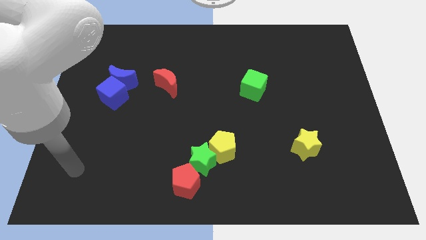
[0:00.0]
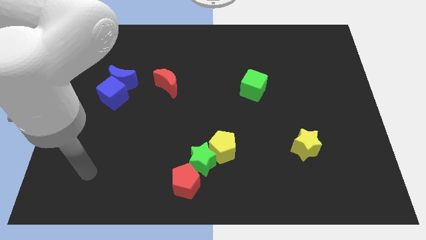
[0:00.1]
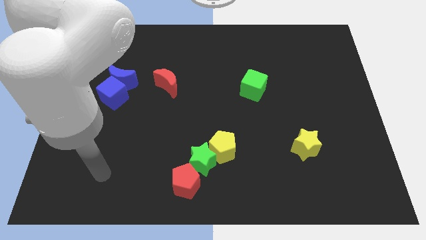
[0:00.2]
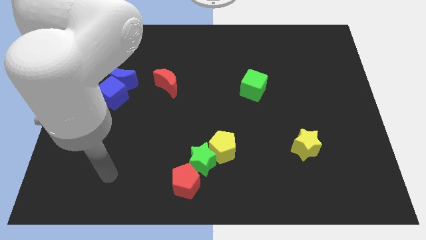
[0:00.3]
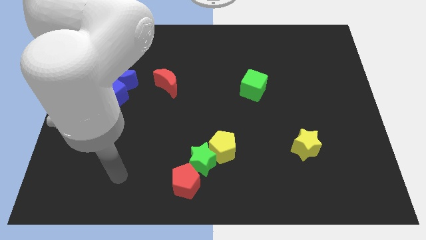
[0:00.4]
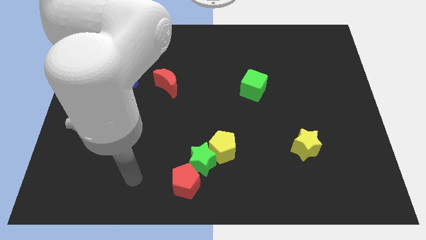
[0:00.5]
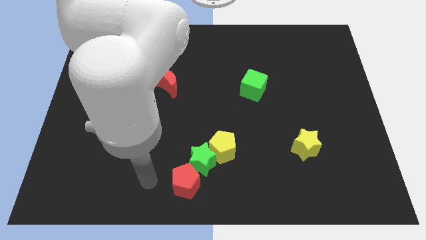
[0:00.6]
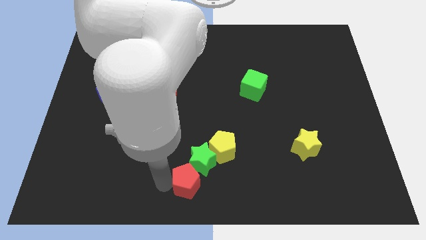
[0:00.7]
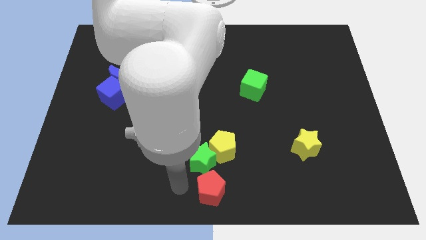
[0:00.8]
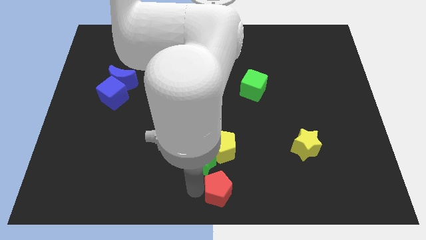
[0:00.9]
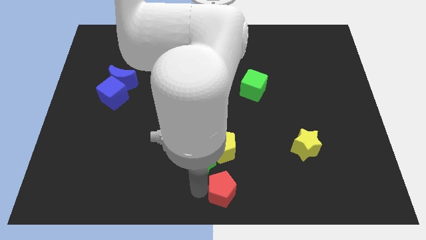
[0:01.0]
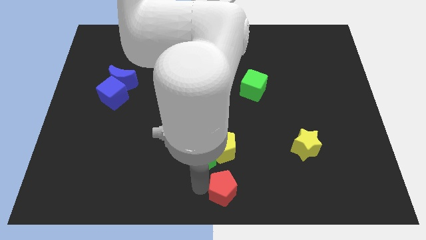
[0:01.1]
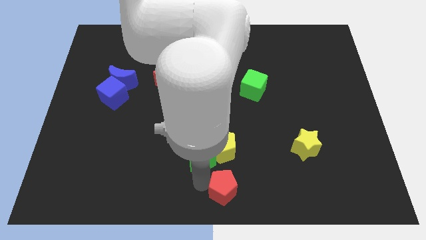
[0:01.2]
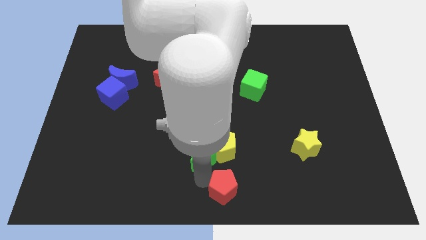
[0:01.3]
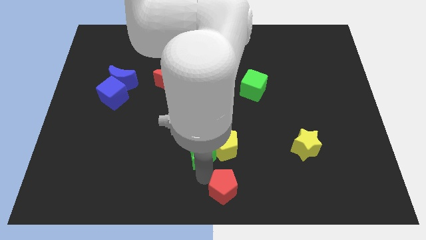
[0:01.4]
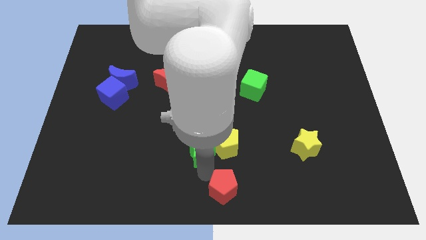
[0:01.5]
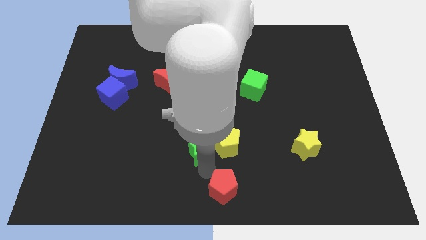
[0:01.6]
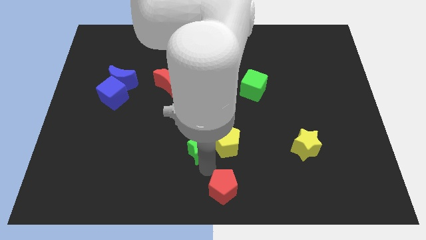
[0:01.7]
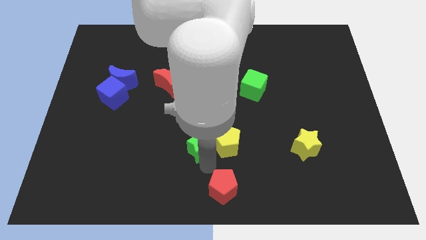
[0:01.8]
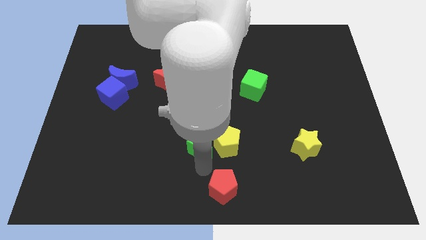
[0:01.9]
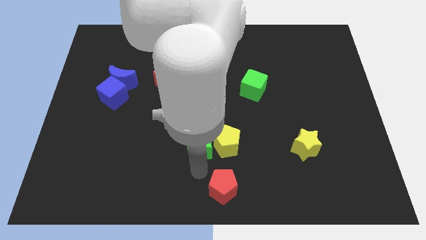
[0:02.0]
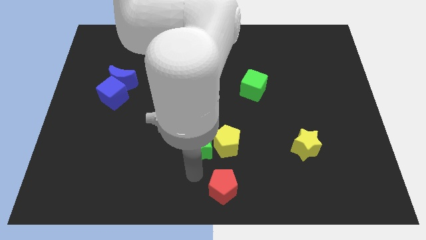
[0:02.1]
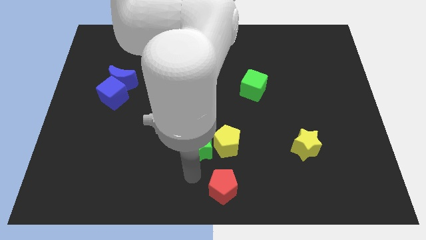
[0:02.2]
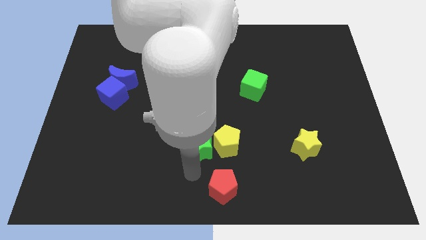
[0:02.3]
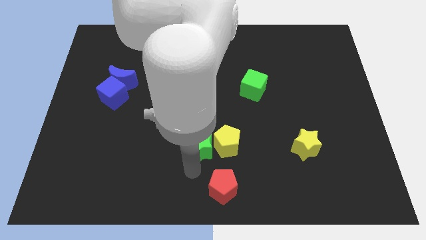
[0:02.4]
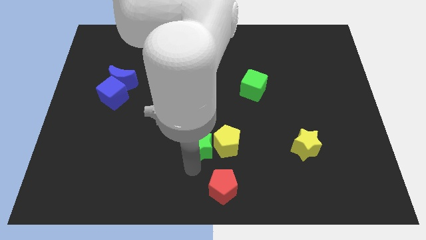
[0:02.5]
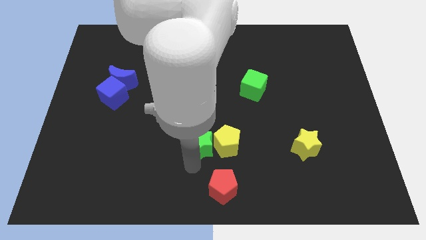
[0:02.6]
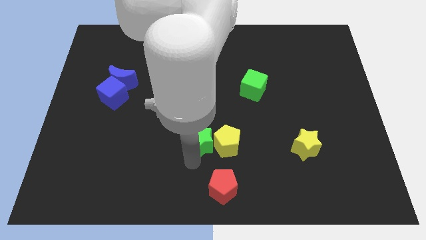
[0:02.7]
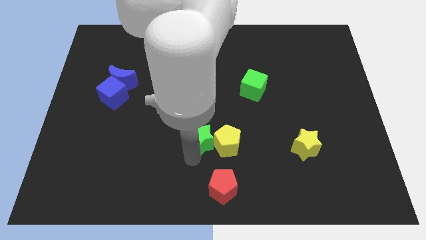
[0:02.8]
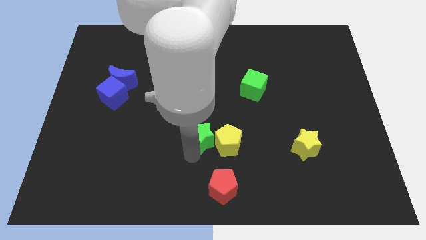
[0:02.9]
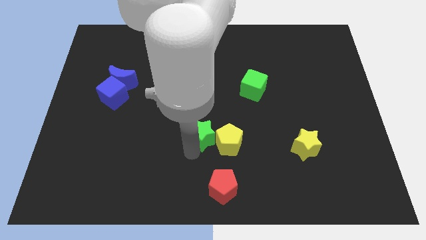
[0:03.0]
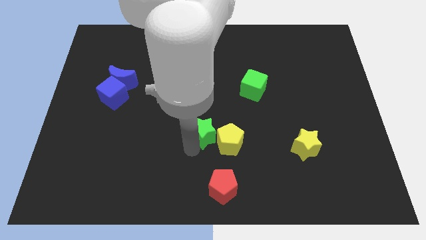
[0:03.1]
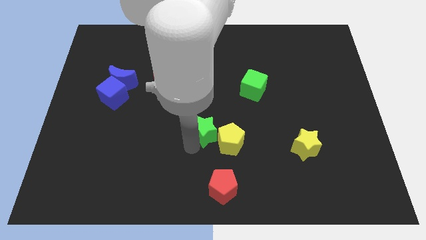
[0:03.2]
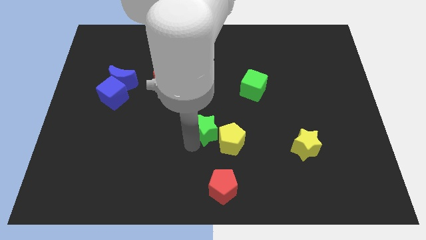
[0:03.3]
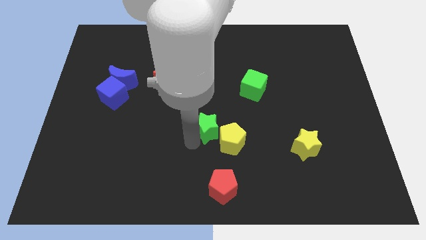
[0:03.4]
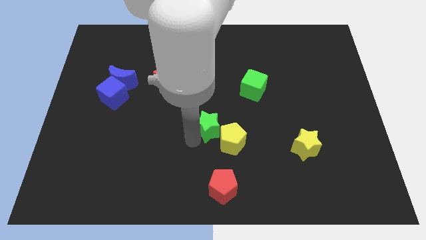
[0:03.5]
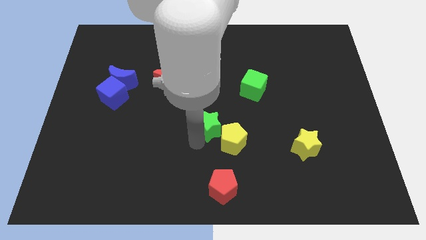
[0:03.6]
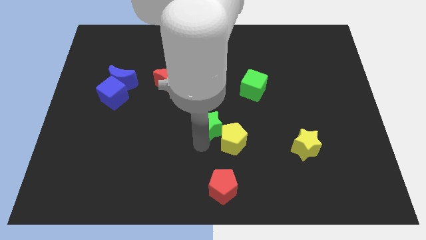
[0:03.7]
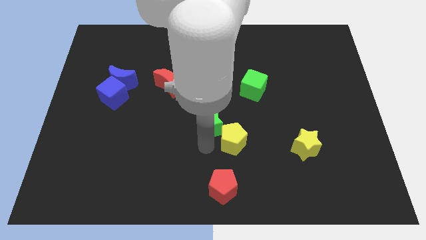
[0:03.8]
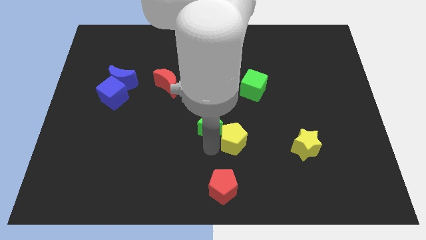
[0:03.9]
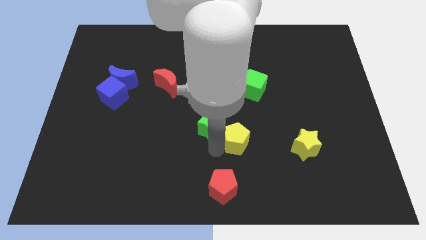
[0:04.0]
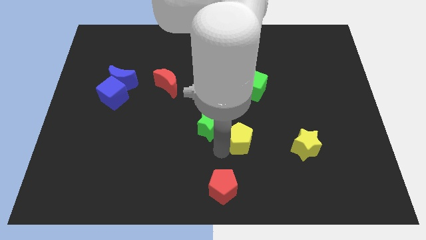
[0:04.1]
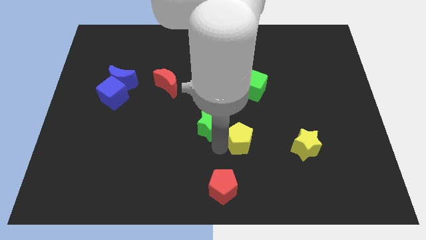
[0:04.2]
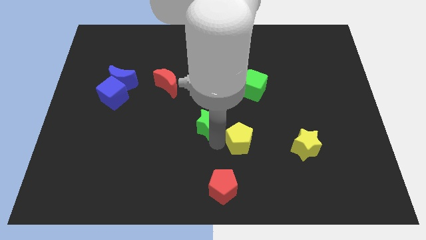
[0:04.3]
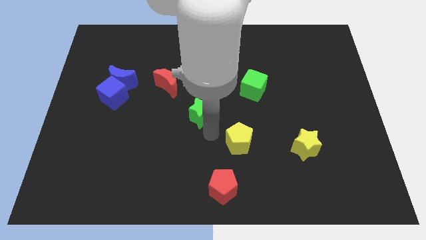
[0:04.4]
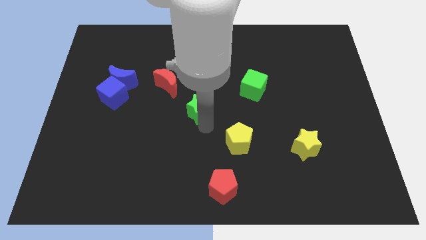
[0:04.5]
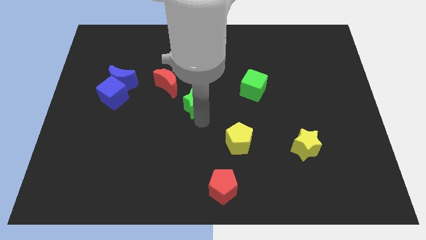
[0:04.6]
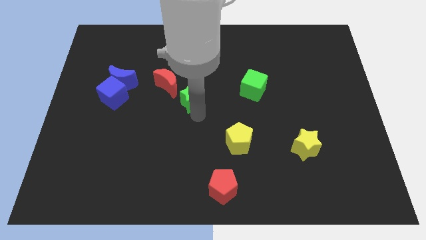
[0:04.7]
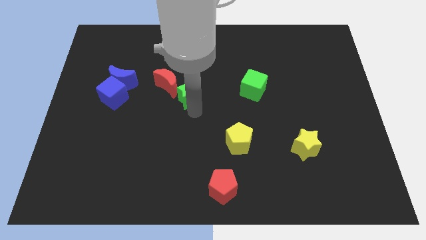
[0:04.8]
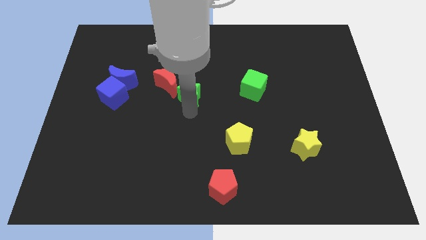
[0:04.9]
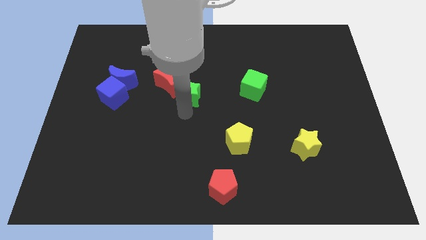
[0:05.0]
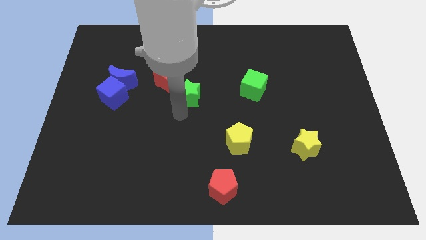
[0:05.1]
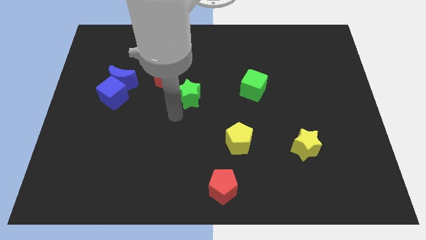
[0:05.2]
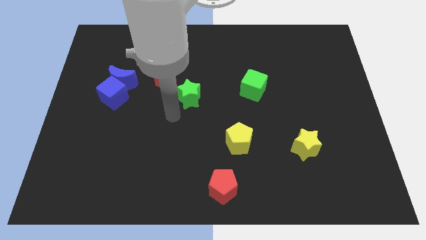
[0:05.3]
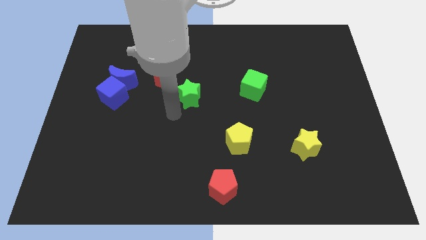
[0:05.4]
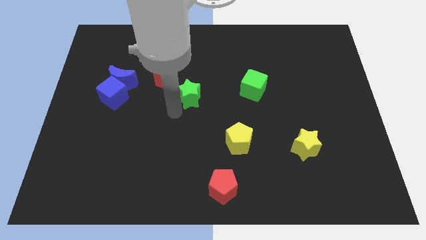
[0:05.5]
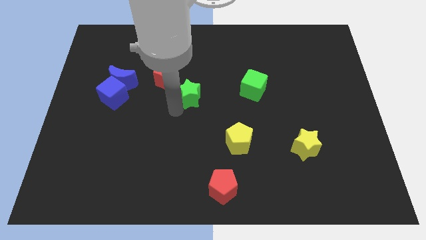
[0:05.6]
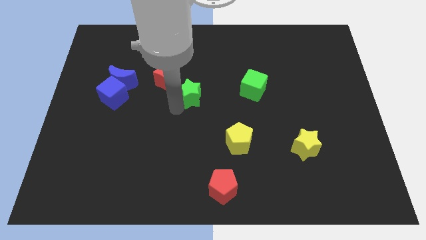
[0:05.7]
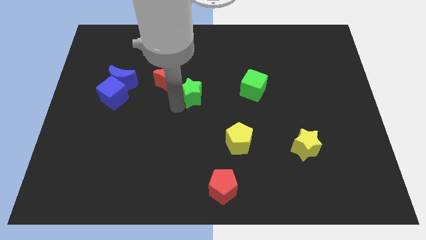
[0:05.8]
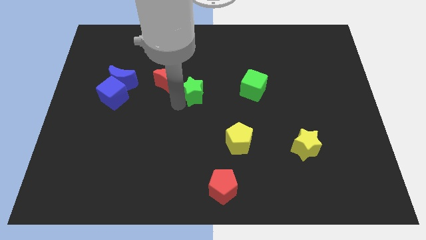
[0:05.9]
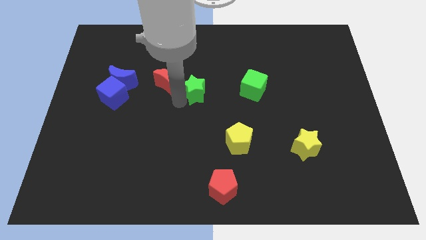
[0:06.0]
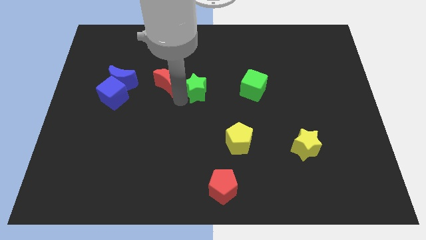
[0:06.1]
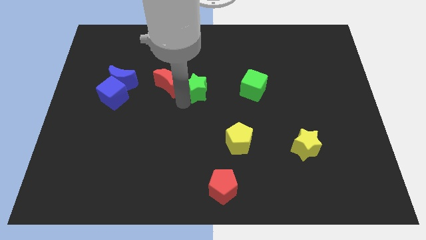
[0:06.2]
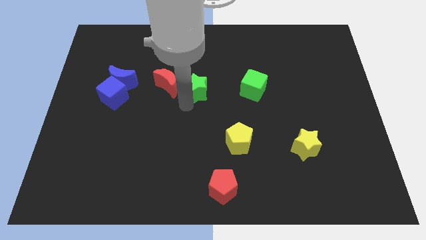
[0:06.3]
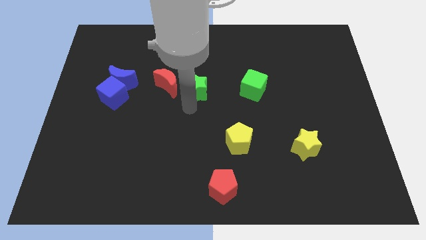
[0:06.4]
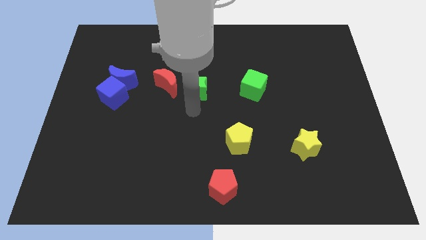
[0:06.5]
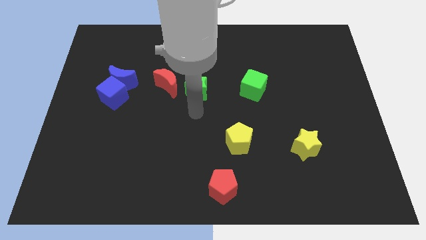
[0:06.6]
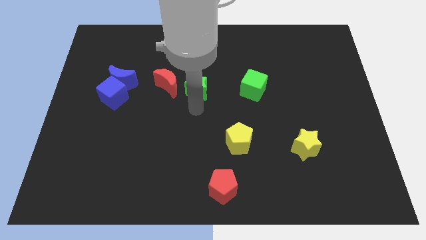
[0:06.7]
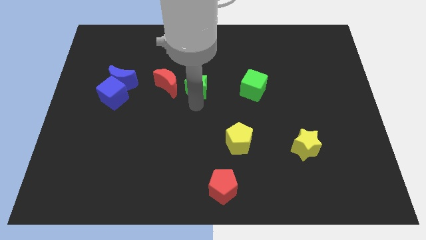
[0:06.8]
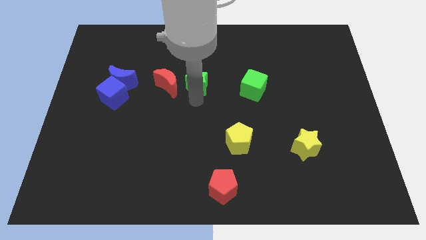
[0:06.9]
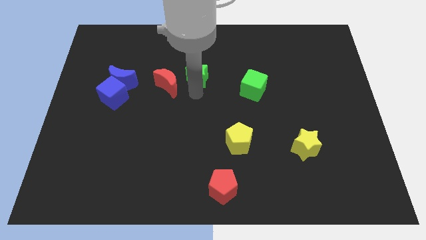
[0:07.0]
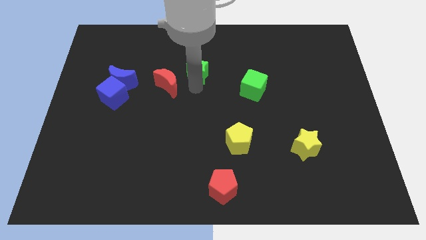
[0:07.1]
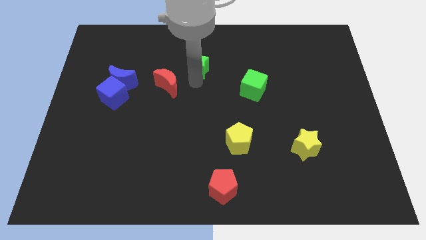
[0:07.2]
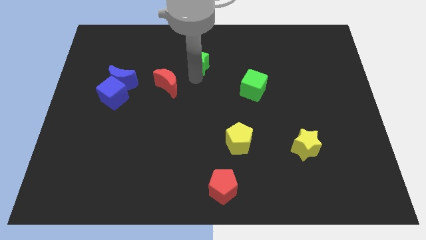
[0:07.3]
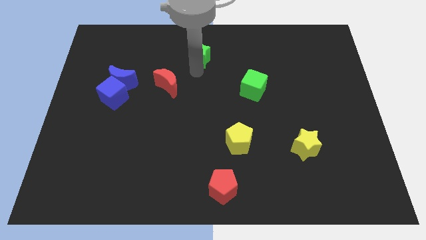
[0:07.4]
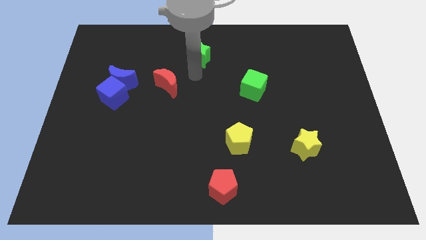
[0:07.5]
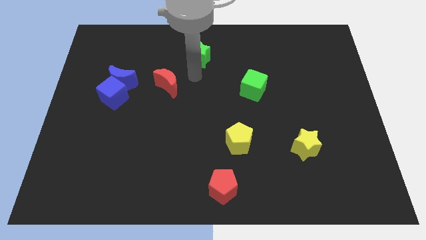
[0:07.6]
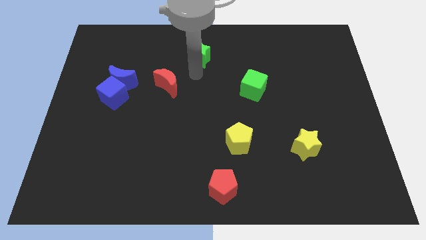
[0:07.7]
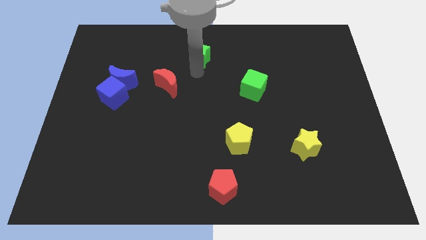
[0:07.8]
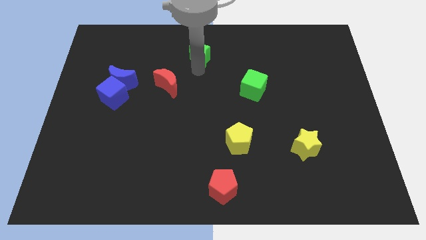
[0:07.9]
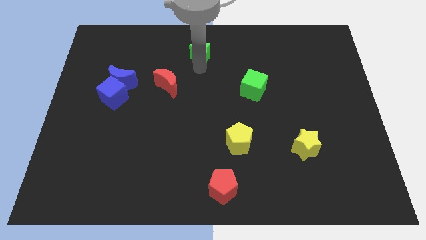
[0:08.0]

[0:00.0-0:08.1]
move the green star to the top side
